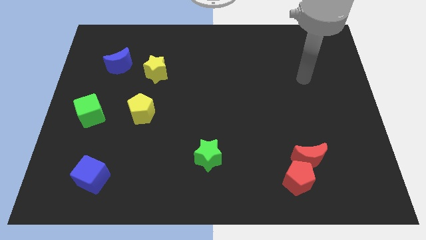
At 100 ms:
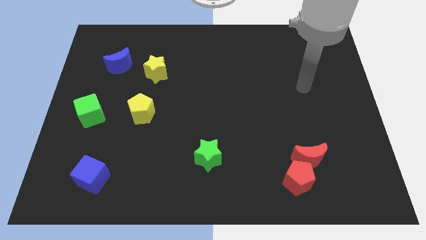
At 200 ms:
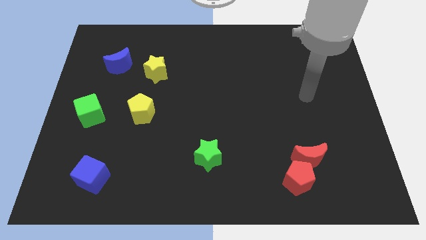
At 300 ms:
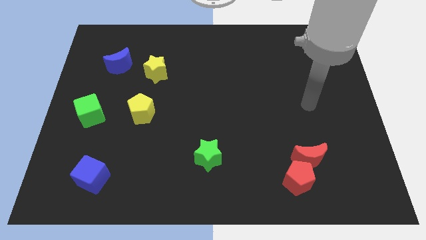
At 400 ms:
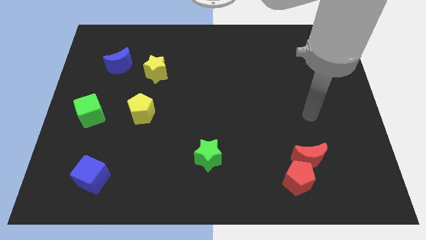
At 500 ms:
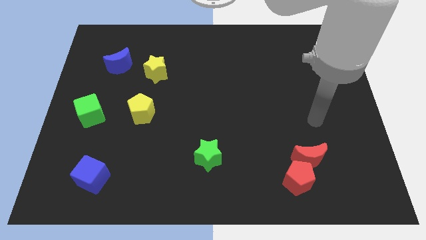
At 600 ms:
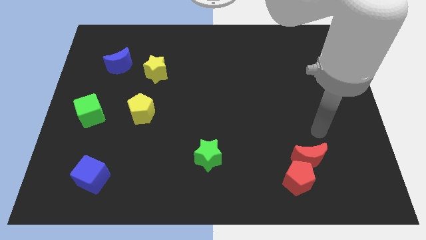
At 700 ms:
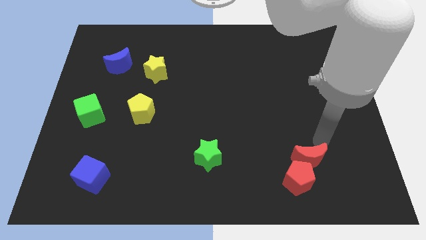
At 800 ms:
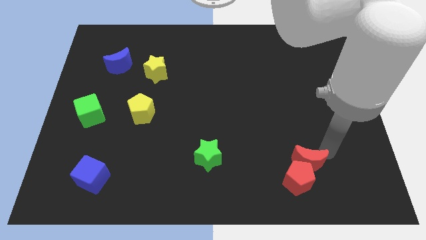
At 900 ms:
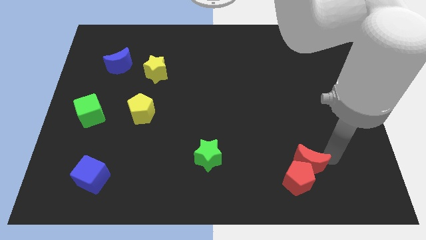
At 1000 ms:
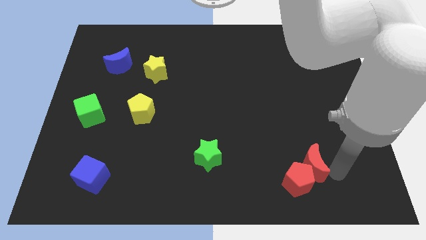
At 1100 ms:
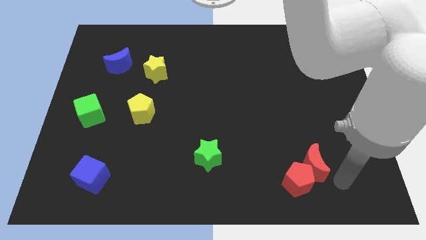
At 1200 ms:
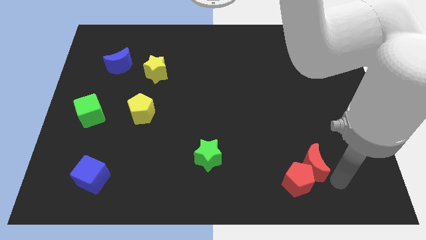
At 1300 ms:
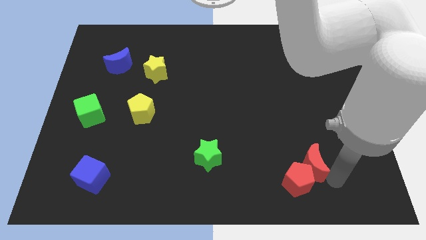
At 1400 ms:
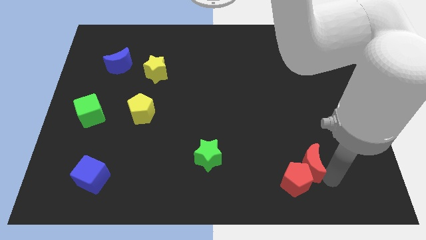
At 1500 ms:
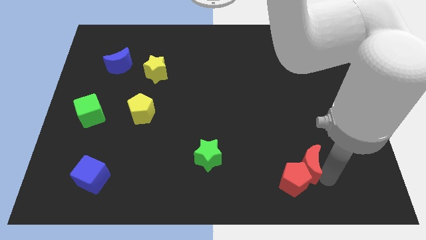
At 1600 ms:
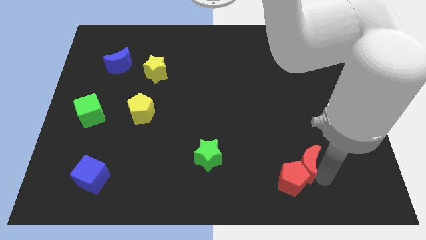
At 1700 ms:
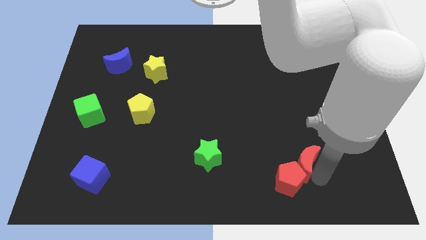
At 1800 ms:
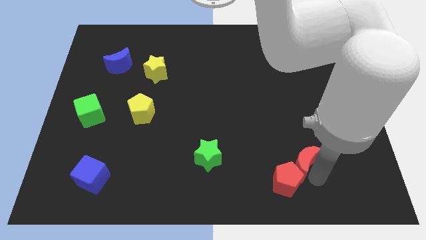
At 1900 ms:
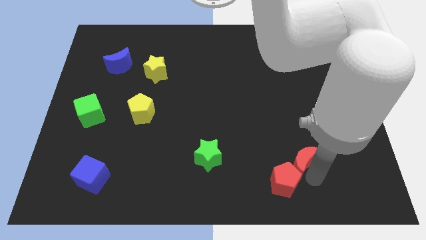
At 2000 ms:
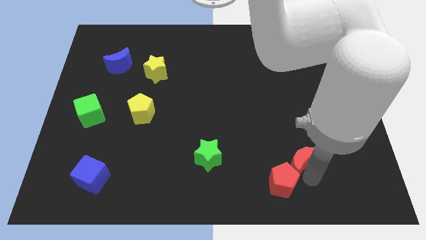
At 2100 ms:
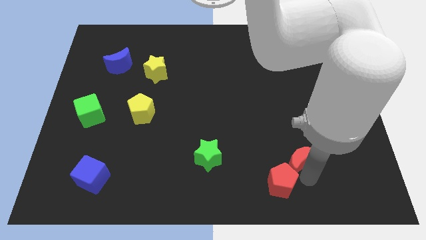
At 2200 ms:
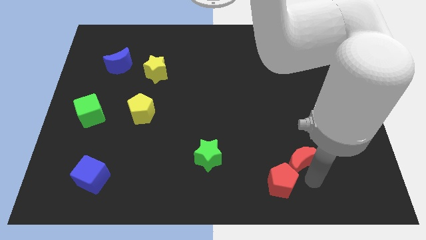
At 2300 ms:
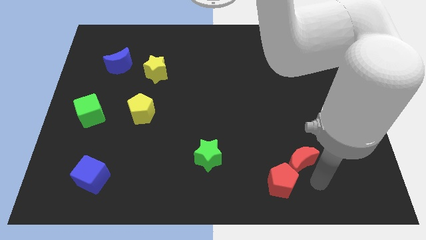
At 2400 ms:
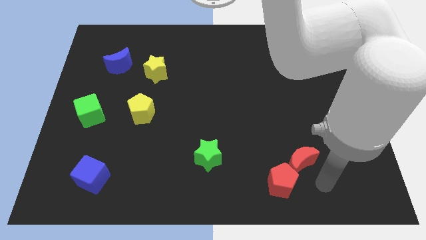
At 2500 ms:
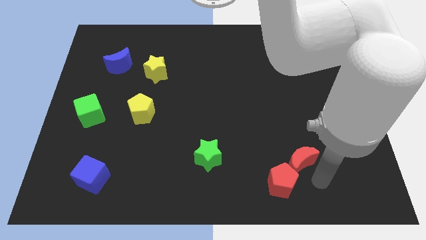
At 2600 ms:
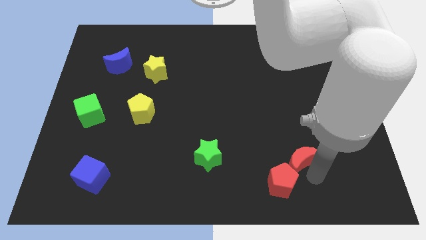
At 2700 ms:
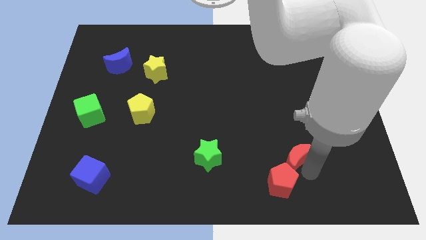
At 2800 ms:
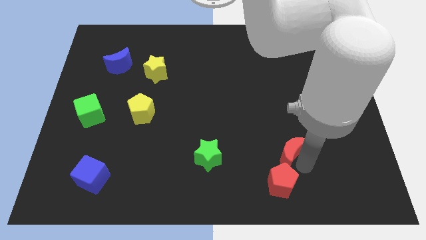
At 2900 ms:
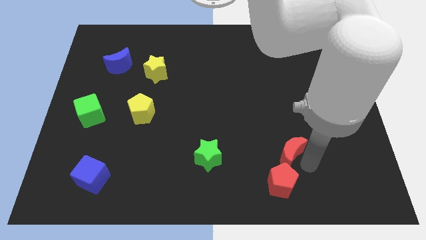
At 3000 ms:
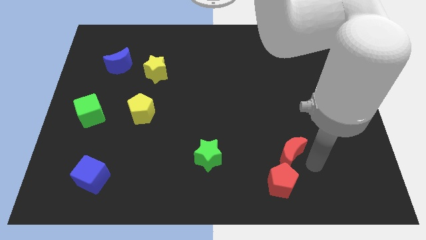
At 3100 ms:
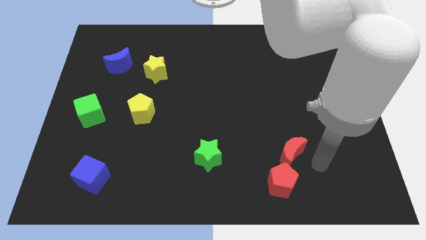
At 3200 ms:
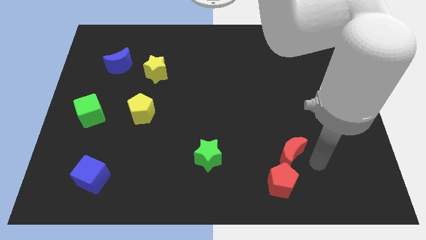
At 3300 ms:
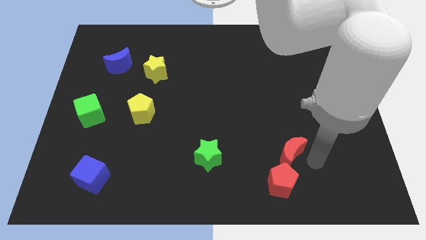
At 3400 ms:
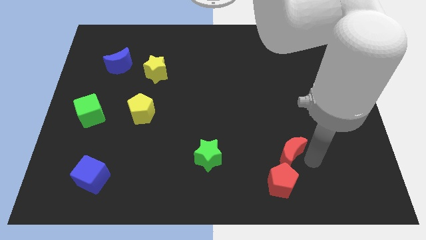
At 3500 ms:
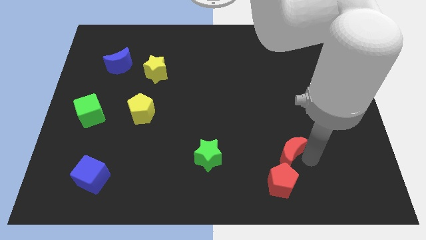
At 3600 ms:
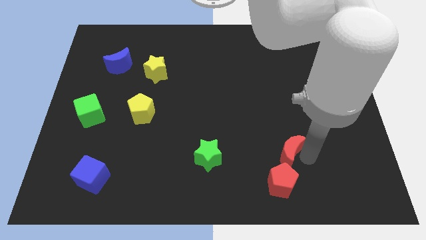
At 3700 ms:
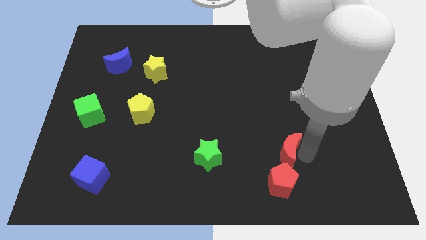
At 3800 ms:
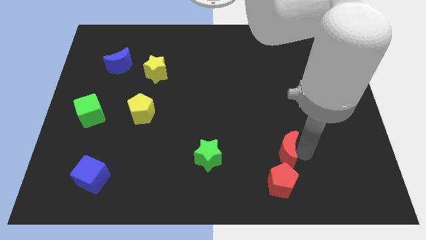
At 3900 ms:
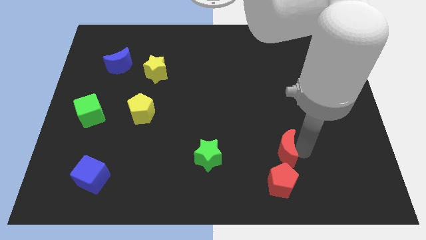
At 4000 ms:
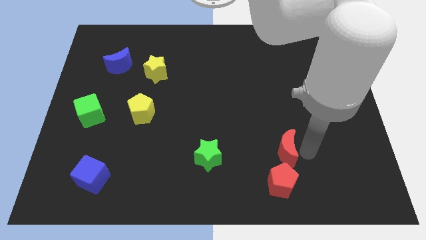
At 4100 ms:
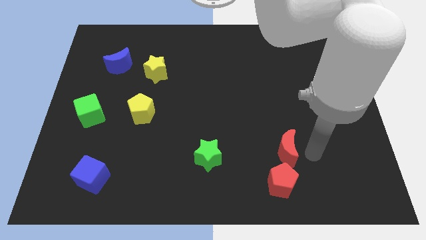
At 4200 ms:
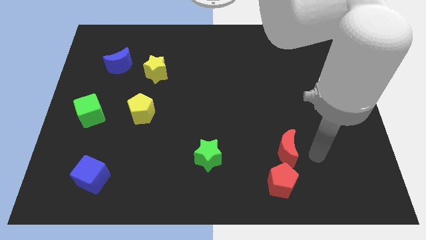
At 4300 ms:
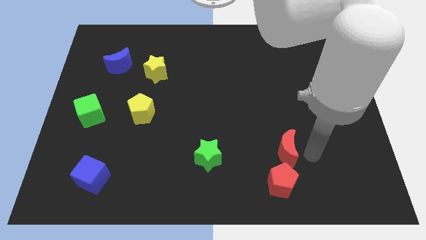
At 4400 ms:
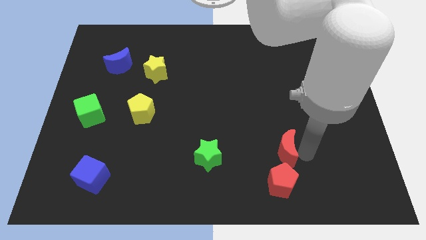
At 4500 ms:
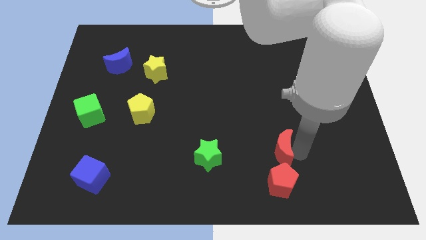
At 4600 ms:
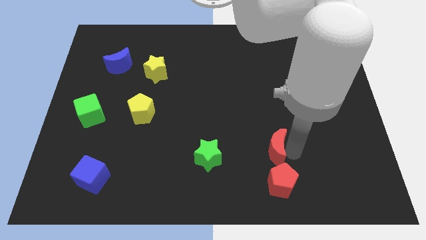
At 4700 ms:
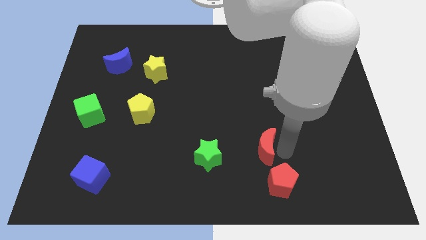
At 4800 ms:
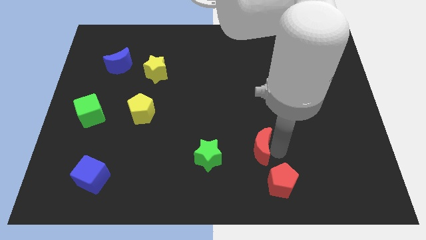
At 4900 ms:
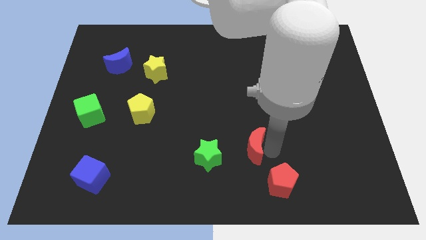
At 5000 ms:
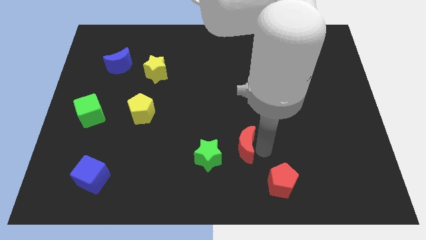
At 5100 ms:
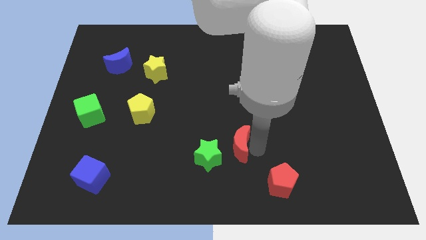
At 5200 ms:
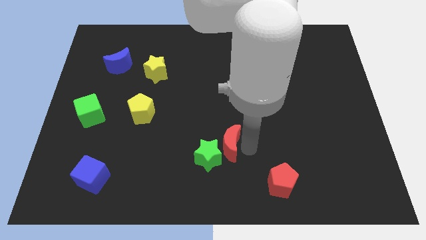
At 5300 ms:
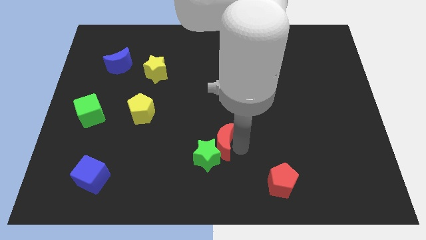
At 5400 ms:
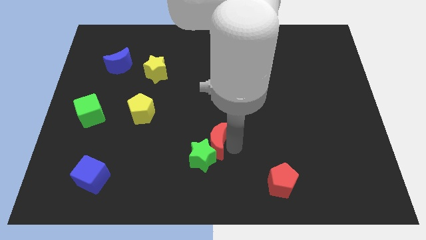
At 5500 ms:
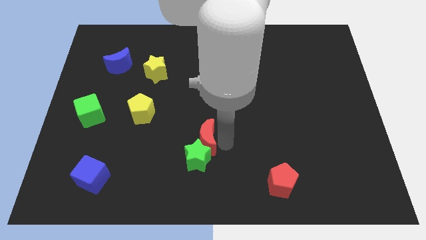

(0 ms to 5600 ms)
move the red moon left

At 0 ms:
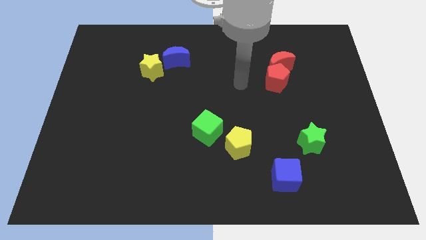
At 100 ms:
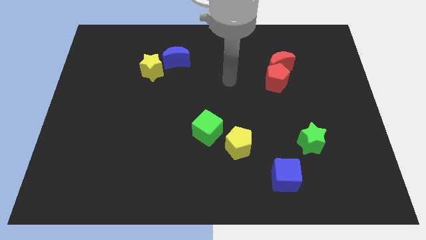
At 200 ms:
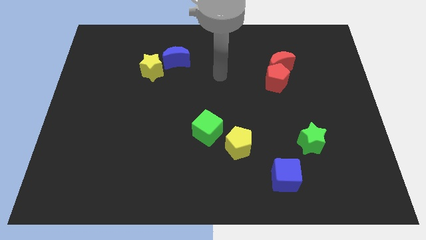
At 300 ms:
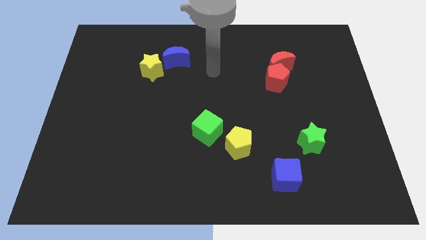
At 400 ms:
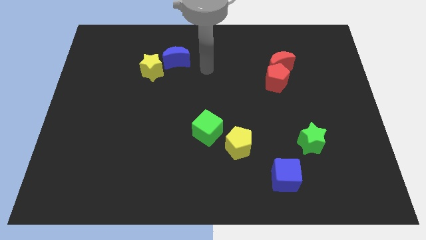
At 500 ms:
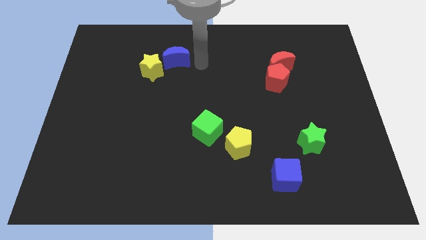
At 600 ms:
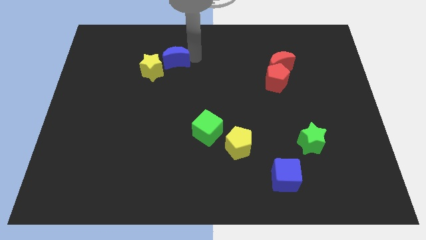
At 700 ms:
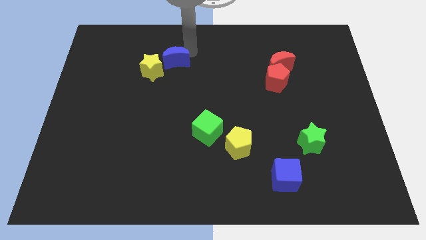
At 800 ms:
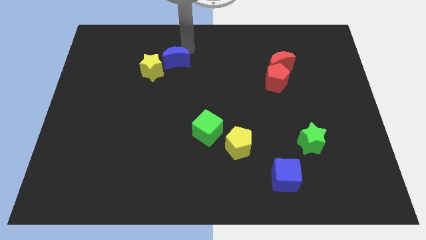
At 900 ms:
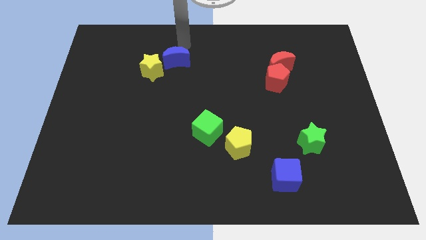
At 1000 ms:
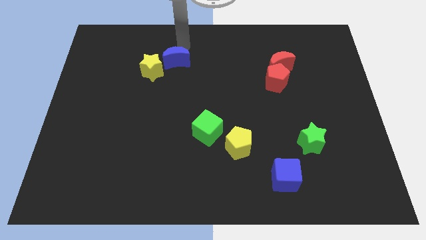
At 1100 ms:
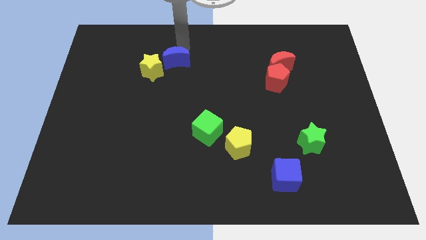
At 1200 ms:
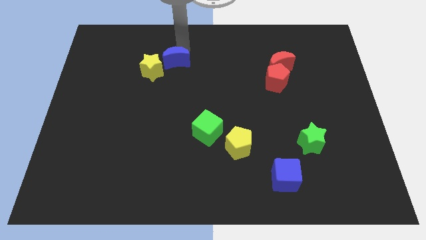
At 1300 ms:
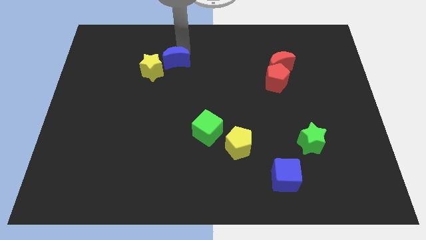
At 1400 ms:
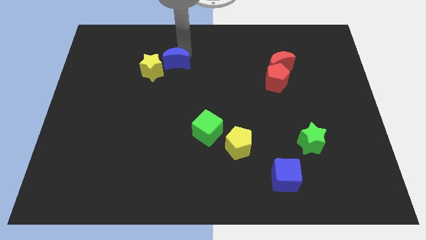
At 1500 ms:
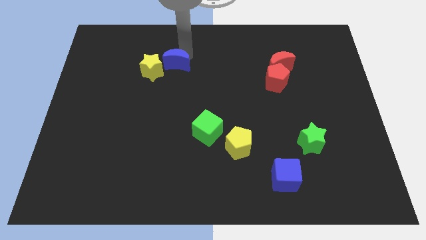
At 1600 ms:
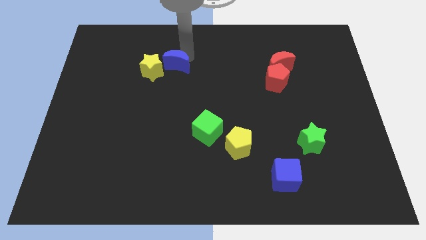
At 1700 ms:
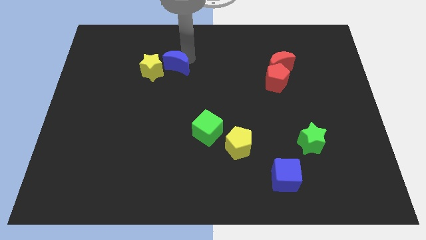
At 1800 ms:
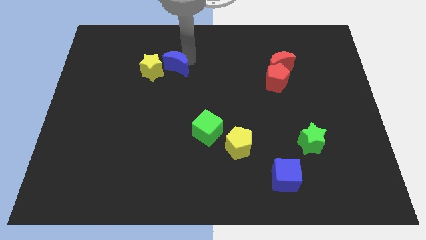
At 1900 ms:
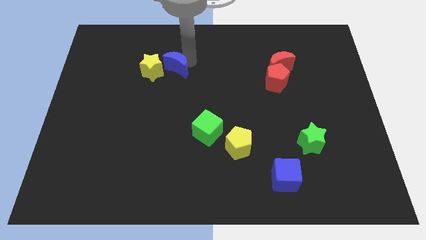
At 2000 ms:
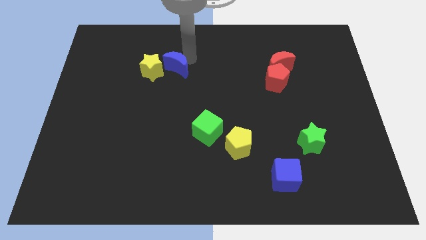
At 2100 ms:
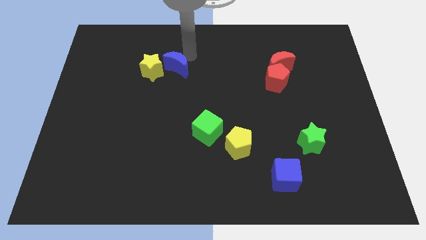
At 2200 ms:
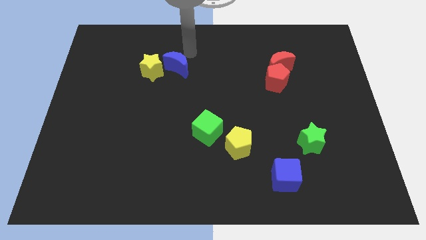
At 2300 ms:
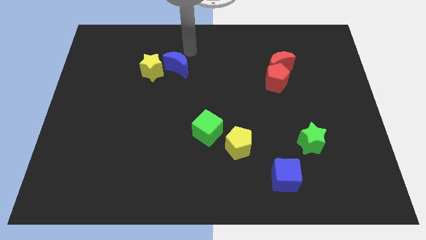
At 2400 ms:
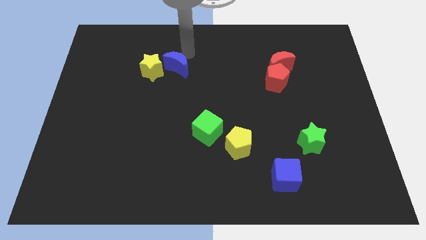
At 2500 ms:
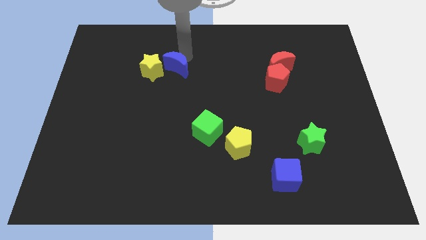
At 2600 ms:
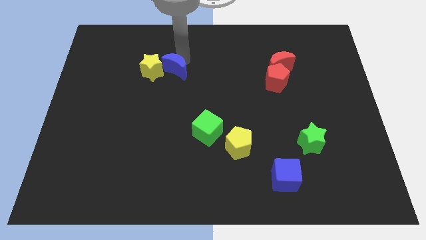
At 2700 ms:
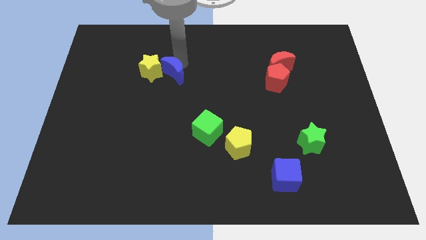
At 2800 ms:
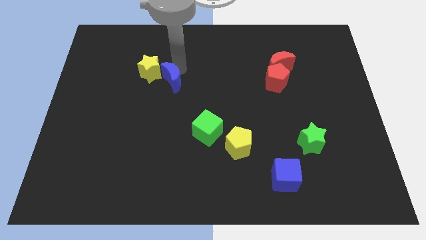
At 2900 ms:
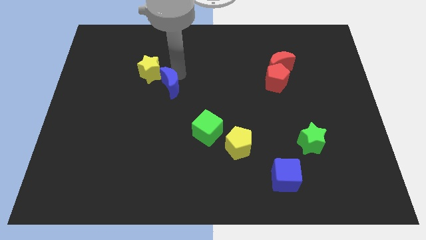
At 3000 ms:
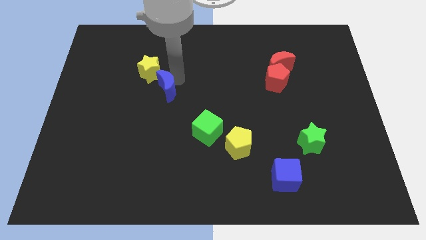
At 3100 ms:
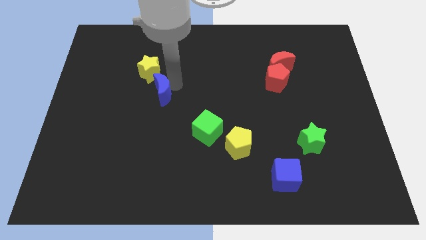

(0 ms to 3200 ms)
slightly move the blue moon diagonally downwards and left
